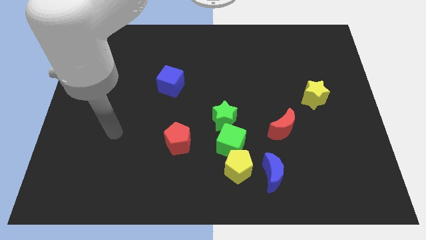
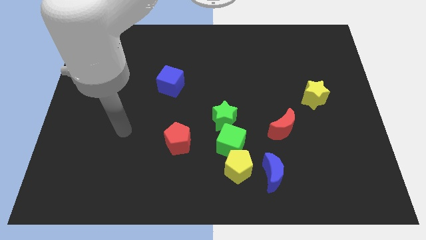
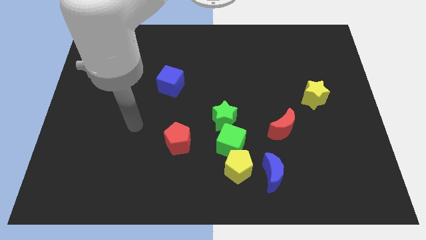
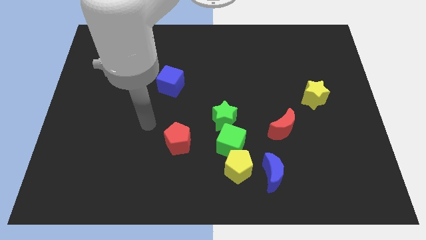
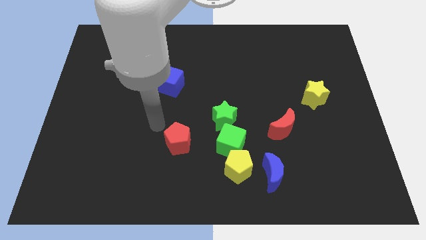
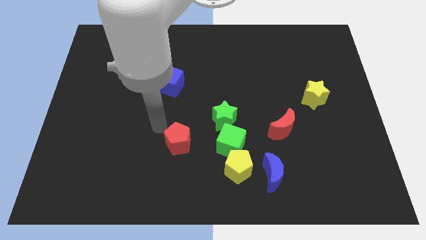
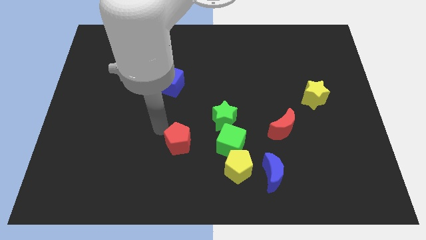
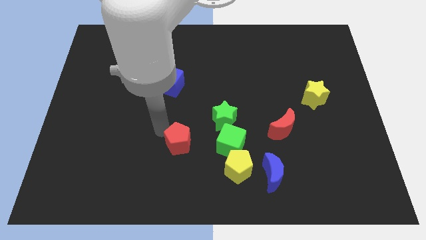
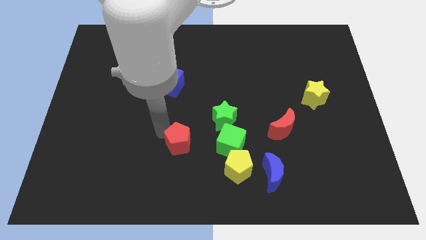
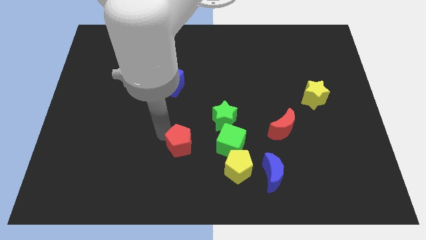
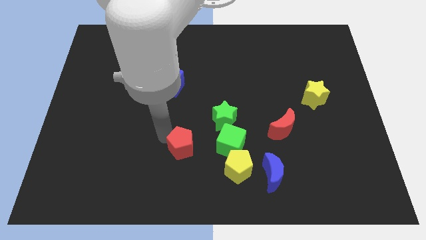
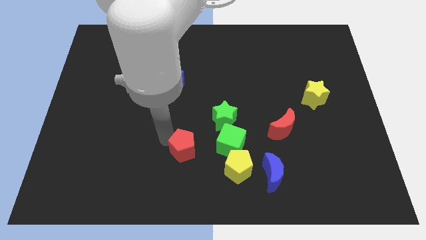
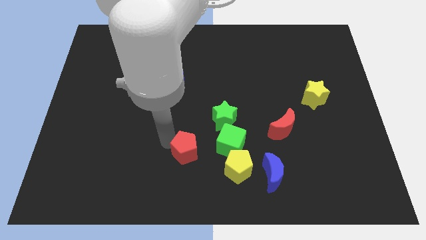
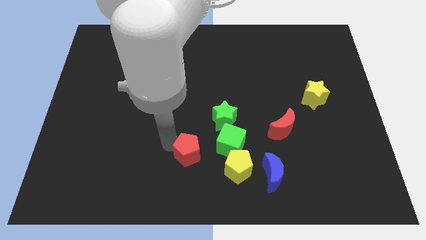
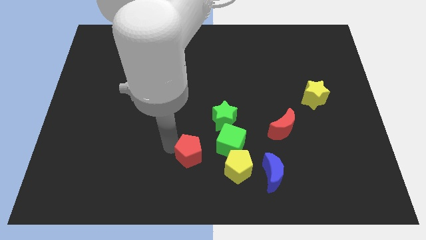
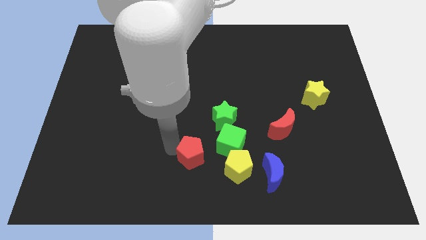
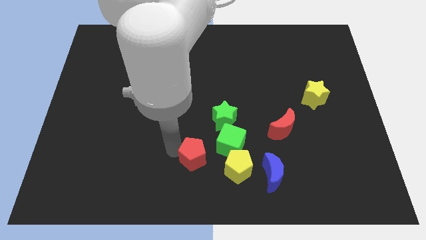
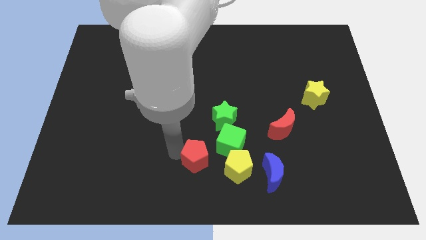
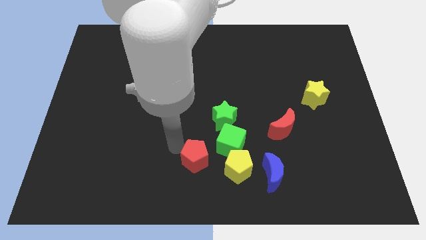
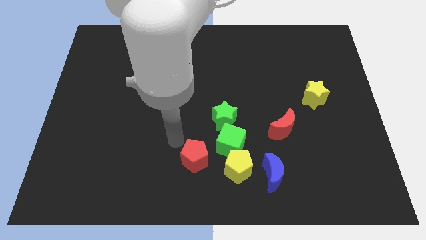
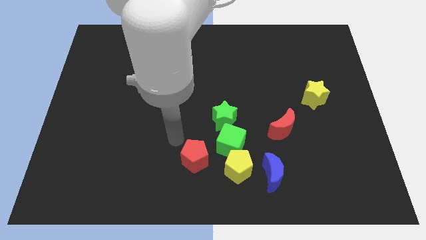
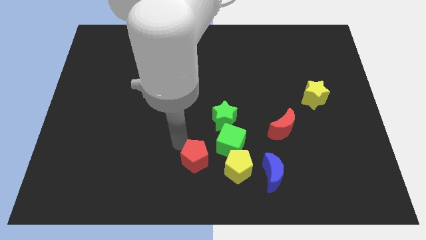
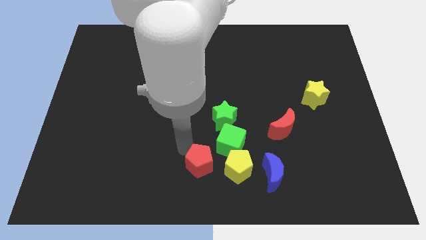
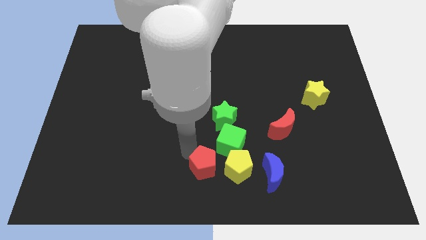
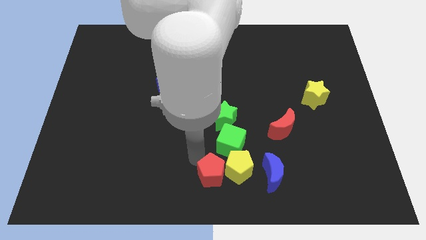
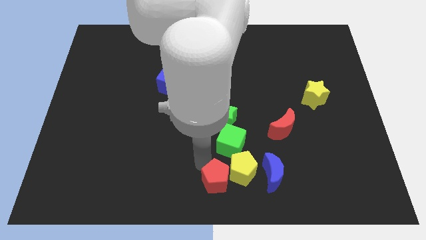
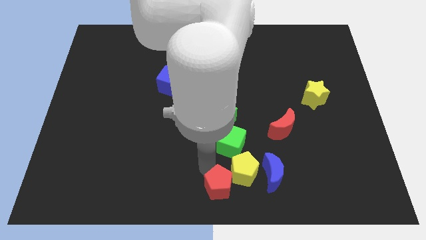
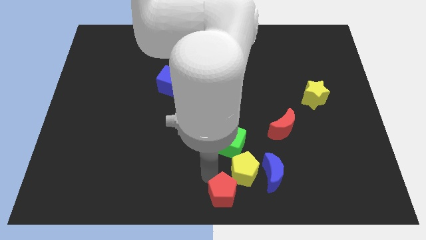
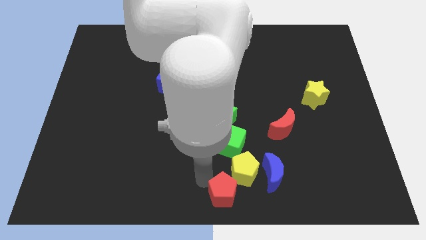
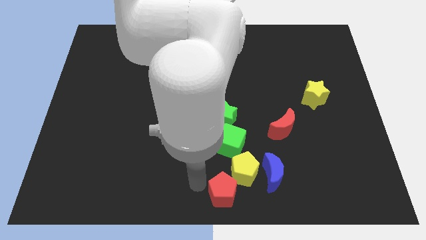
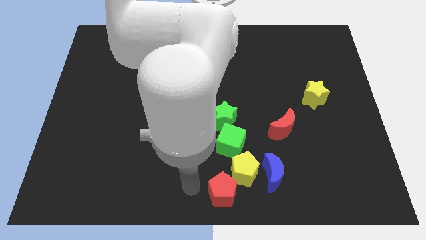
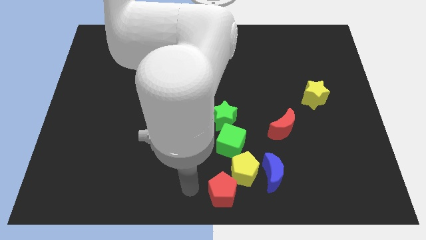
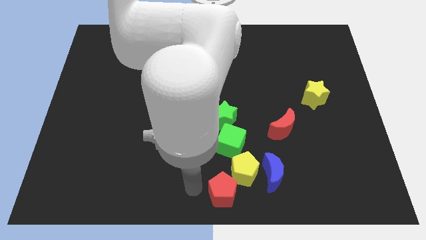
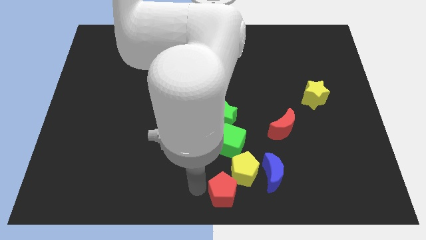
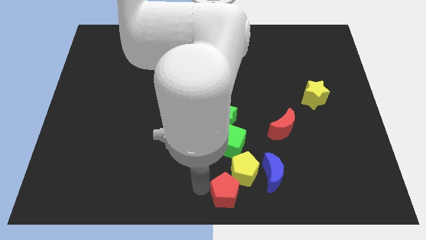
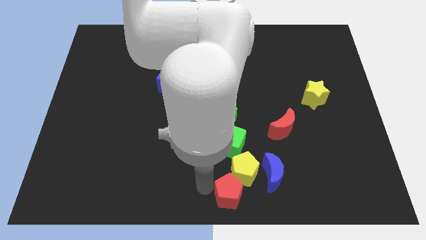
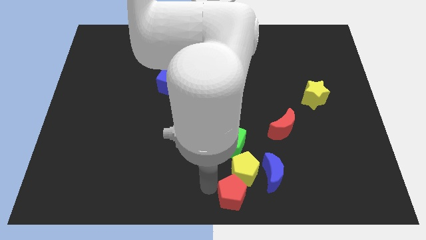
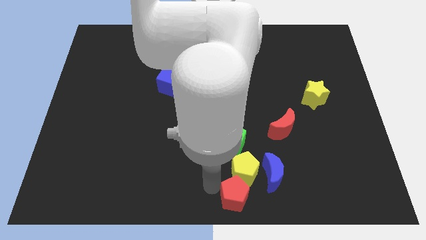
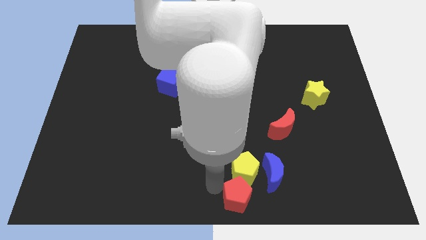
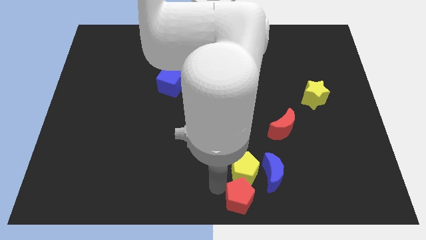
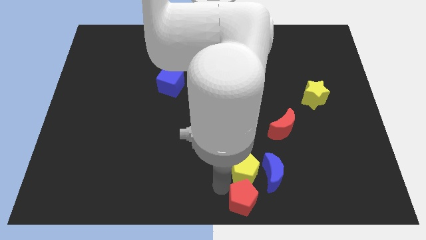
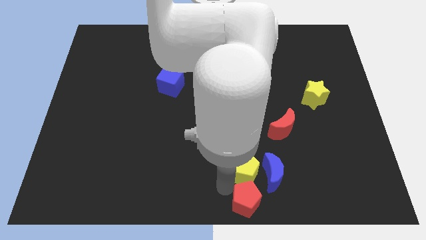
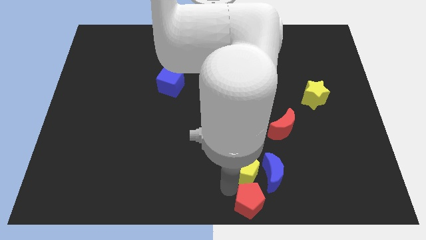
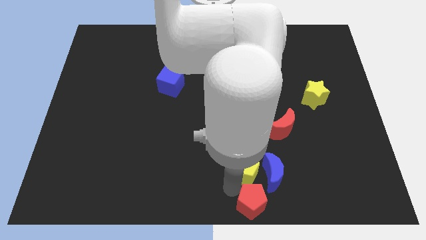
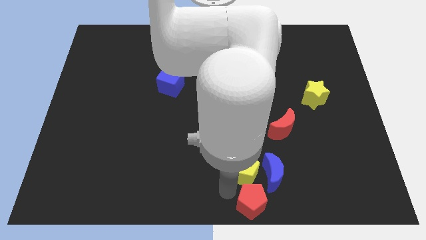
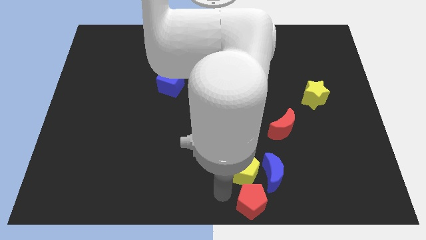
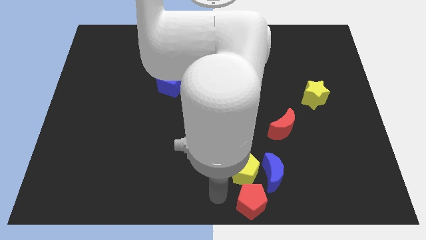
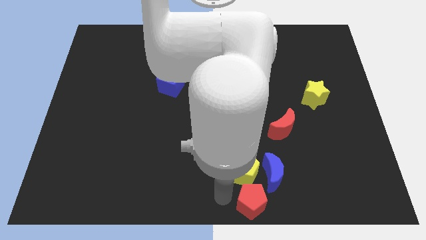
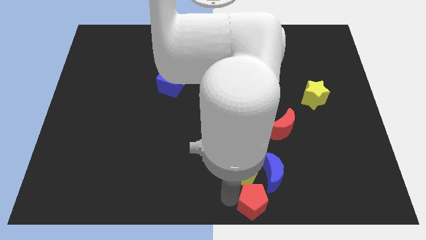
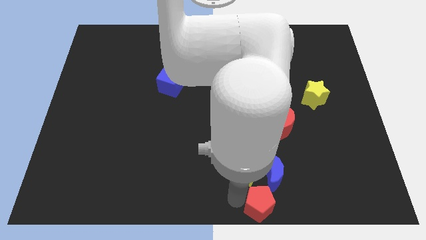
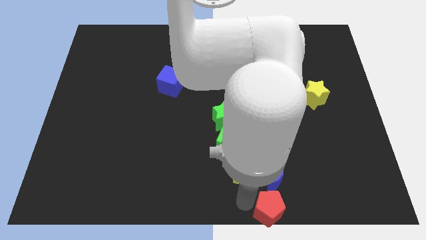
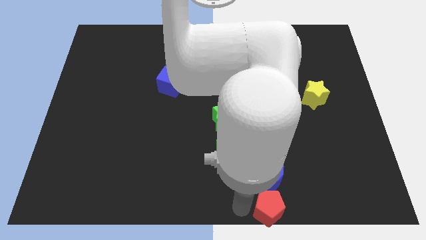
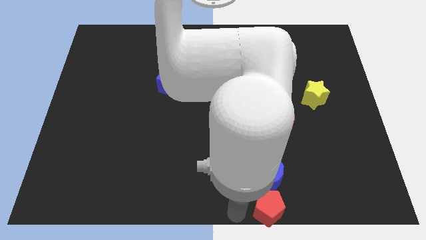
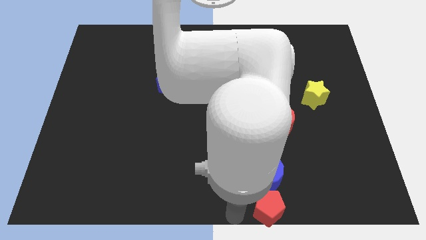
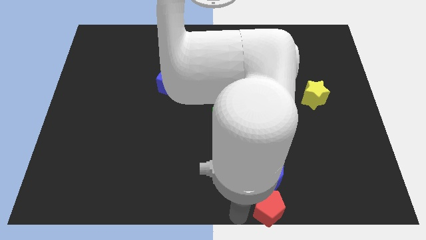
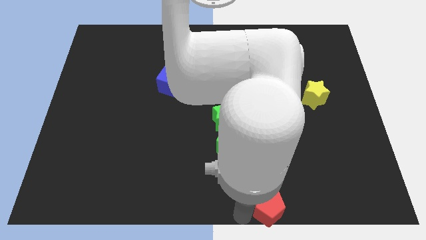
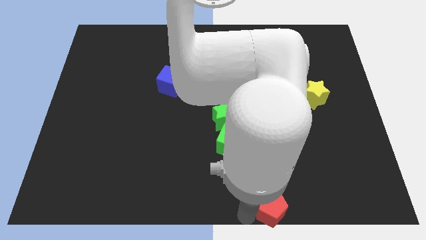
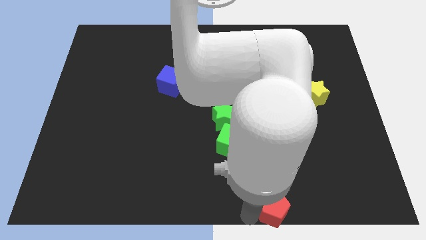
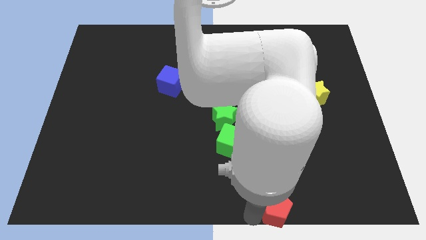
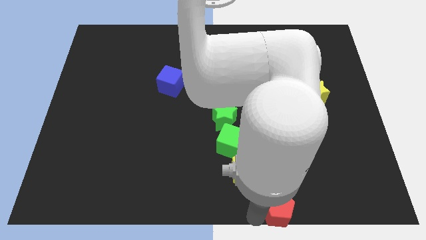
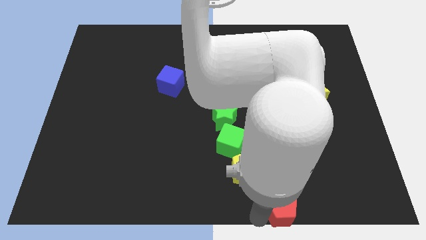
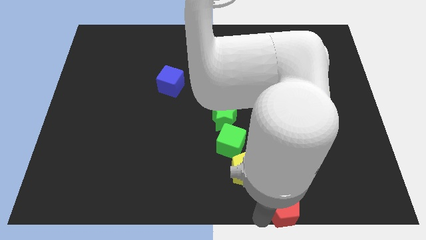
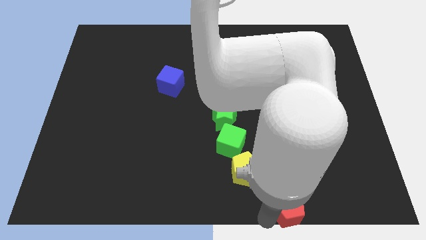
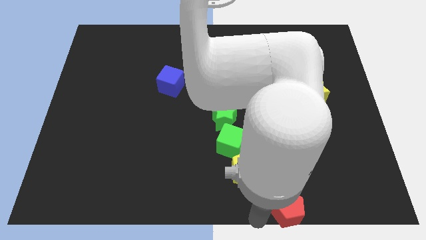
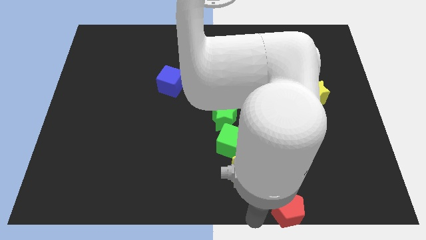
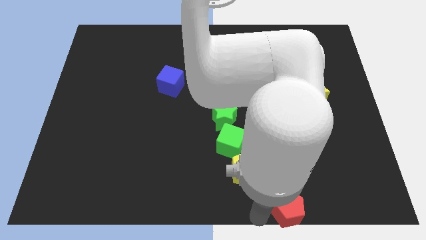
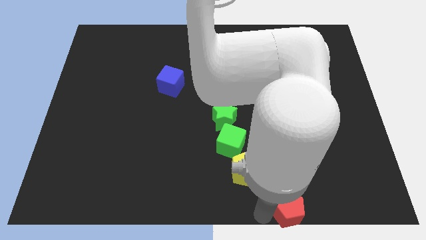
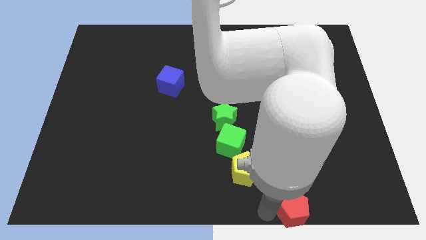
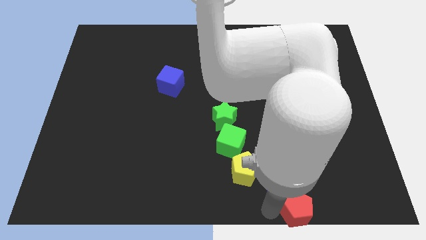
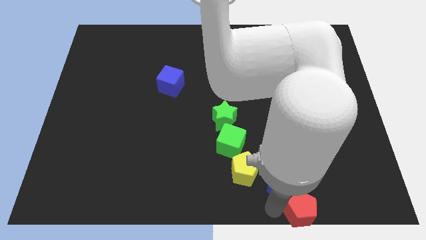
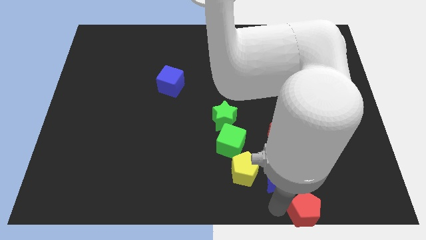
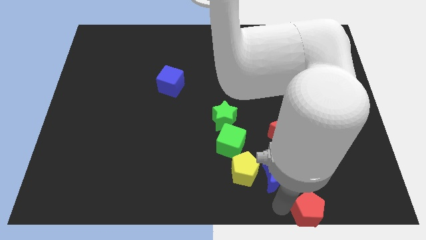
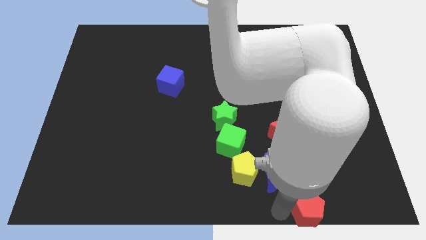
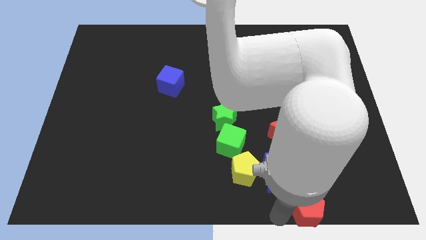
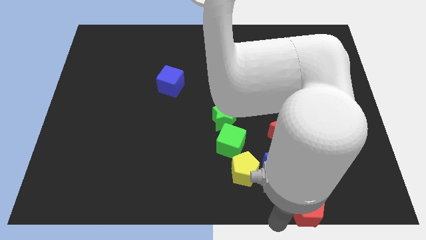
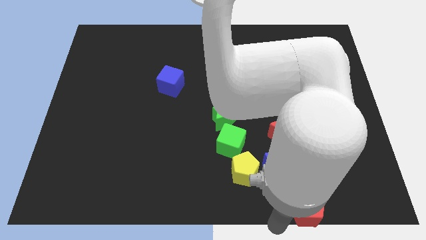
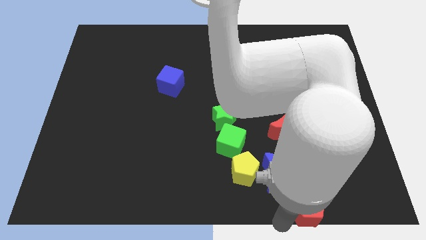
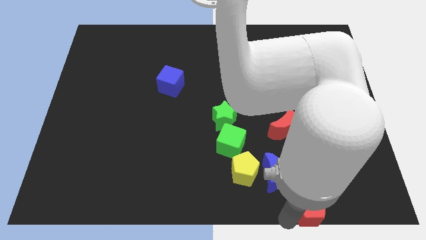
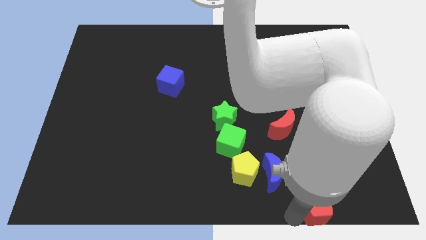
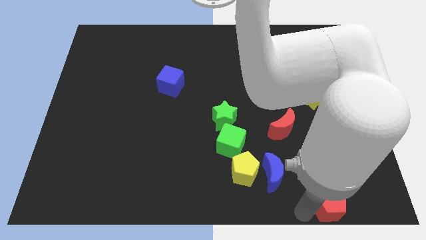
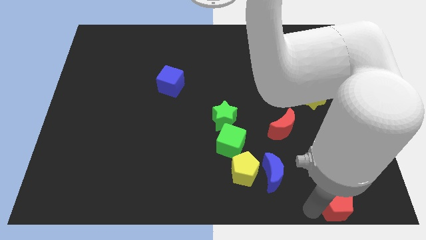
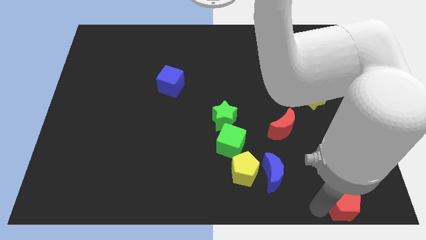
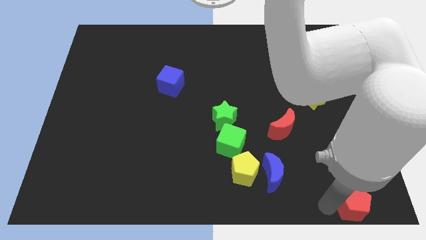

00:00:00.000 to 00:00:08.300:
put the red pentagon to the lower right corner
